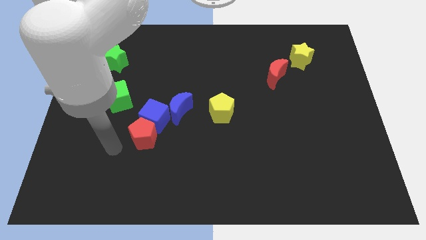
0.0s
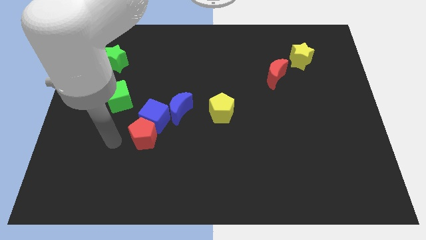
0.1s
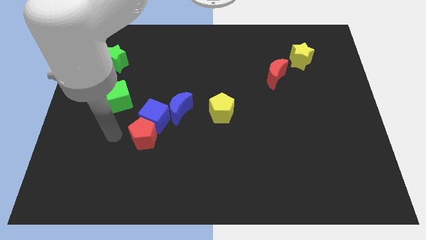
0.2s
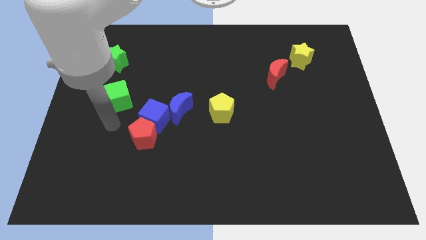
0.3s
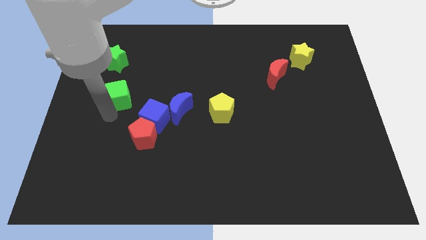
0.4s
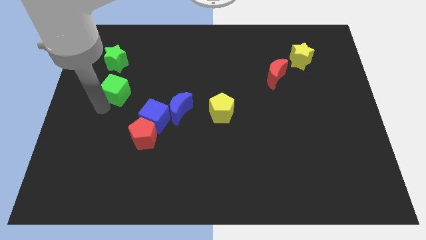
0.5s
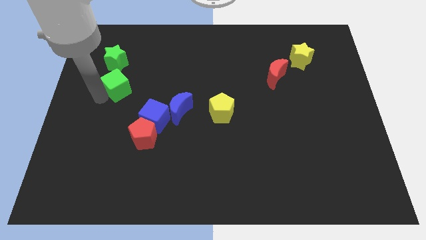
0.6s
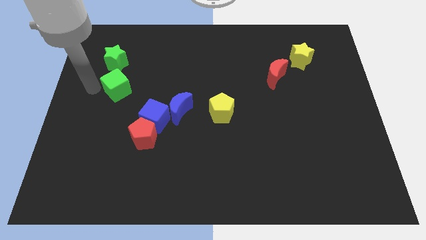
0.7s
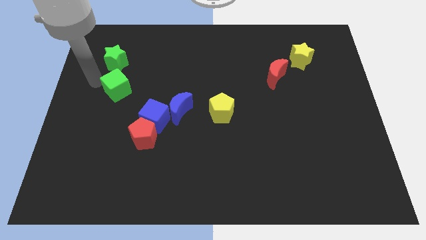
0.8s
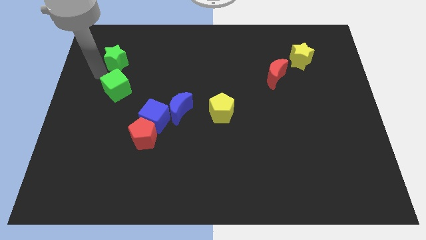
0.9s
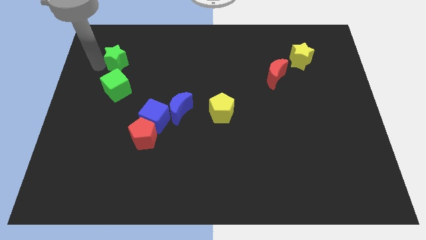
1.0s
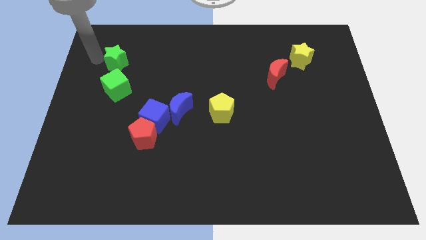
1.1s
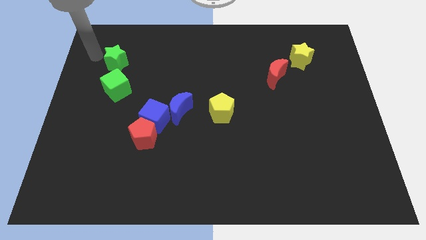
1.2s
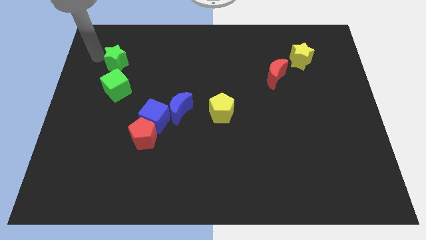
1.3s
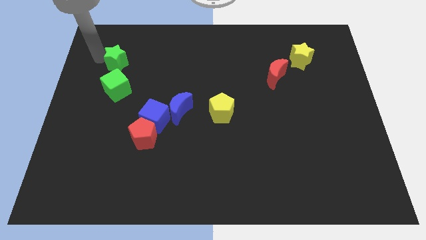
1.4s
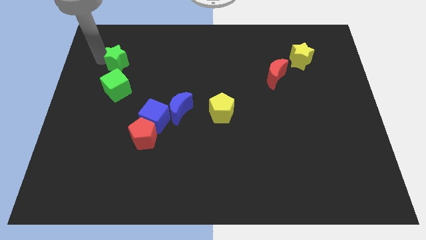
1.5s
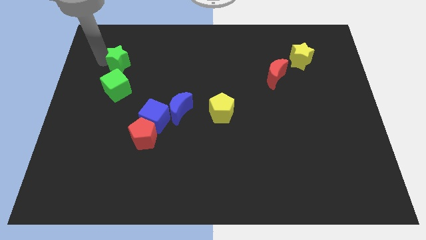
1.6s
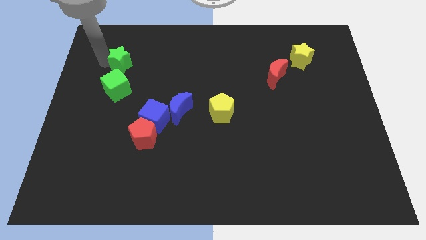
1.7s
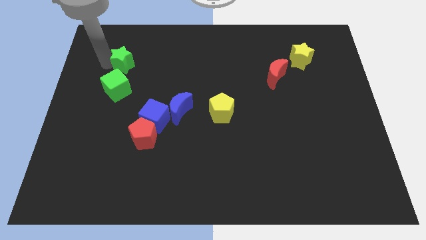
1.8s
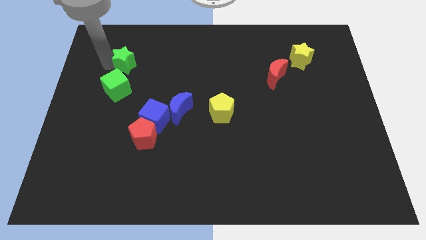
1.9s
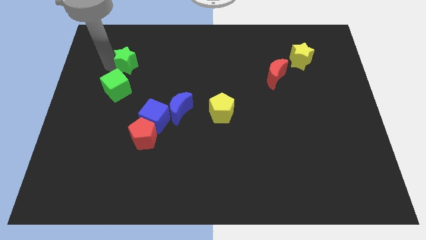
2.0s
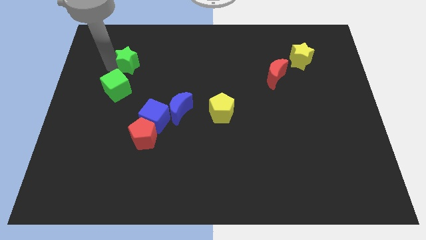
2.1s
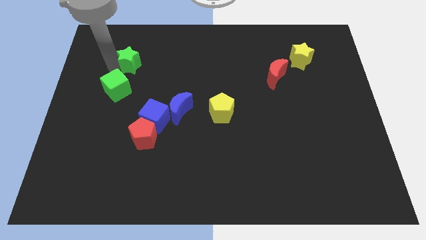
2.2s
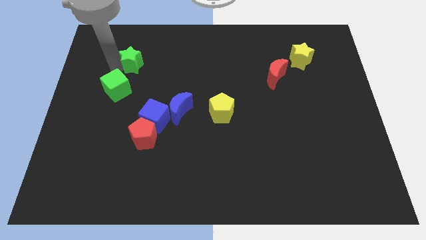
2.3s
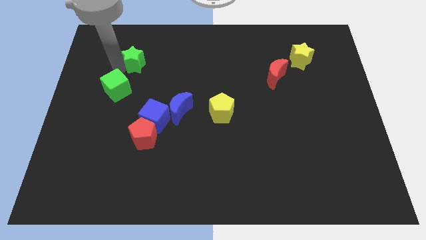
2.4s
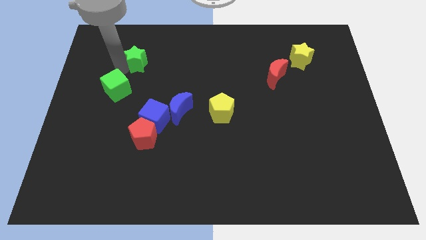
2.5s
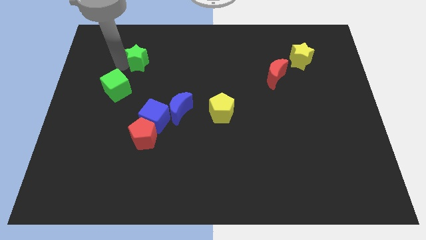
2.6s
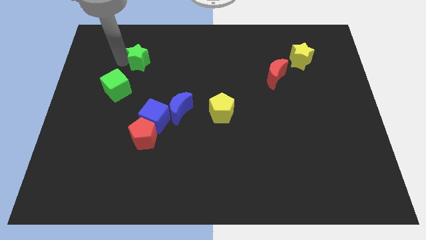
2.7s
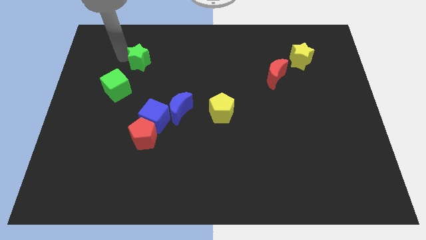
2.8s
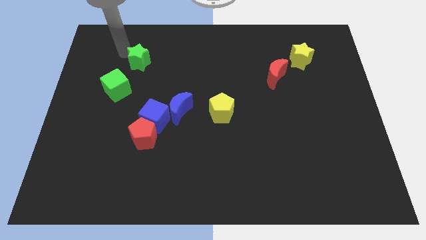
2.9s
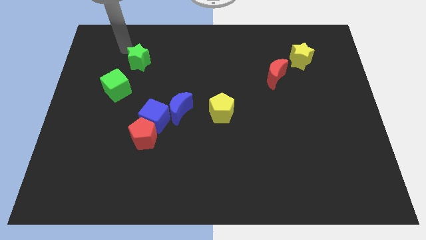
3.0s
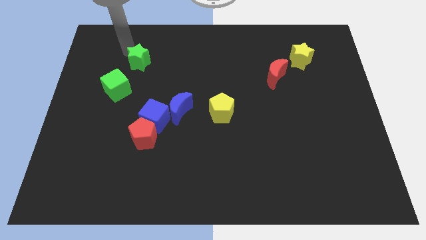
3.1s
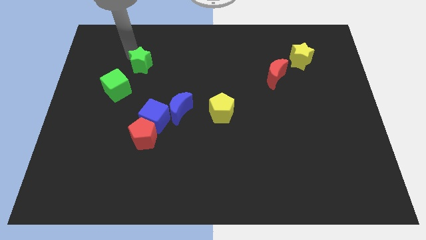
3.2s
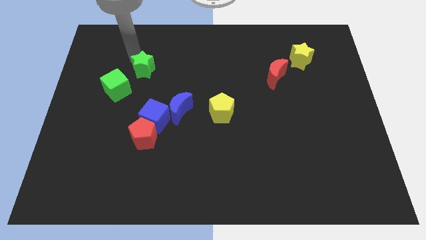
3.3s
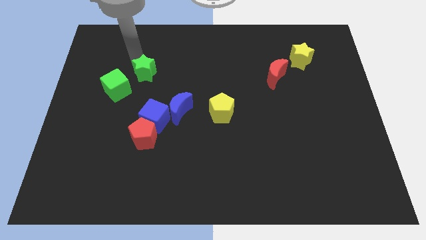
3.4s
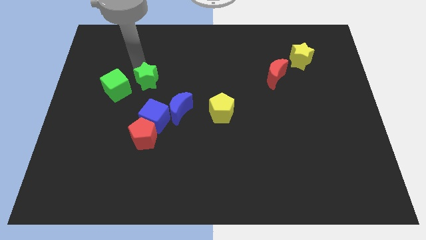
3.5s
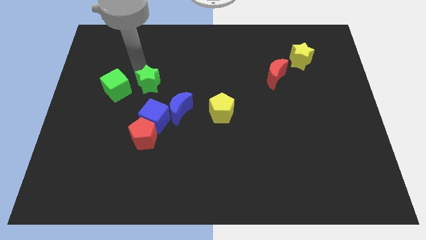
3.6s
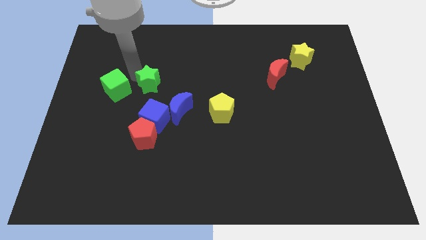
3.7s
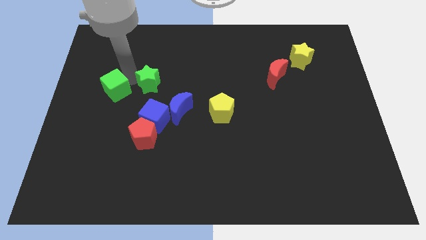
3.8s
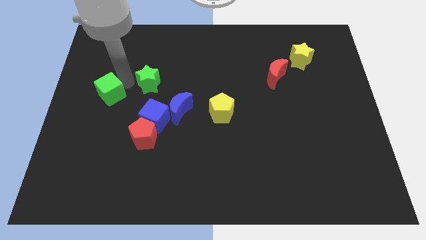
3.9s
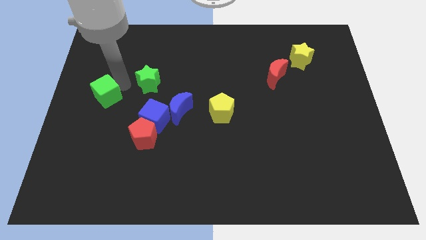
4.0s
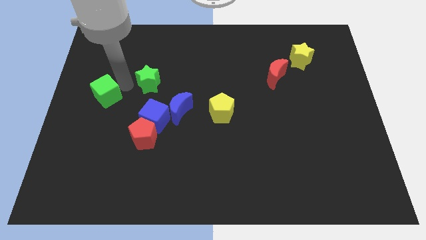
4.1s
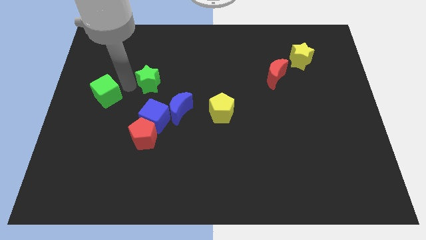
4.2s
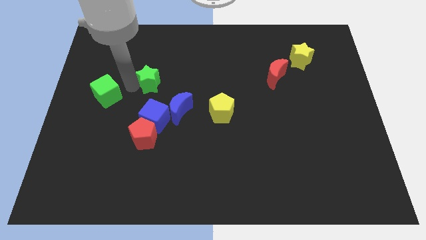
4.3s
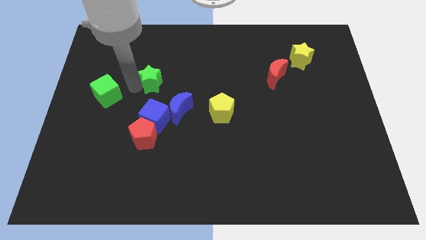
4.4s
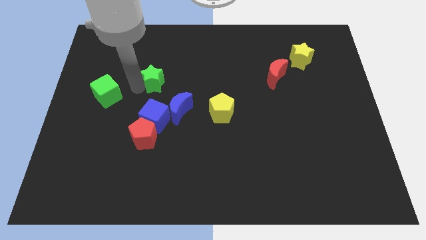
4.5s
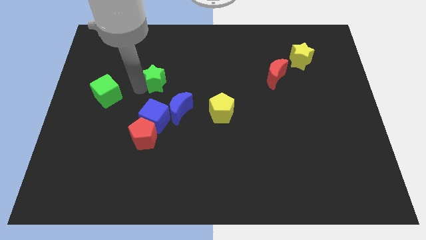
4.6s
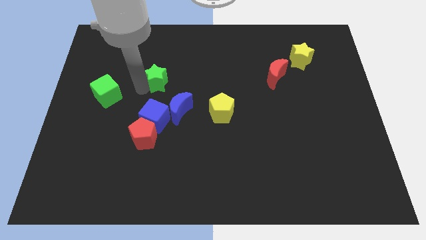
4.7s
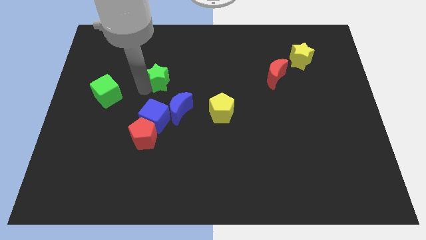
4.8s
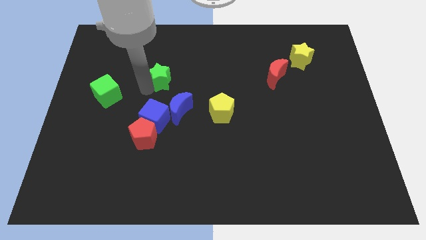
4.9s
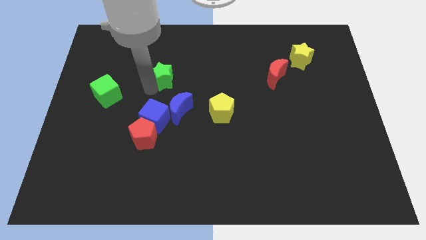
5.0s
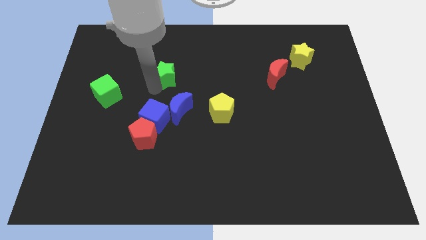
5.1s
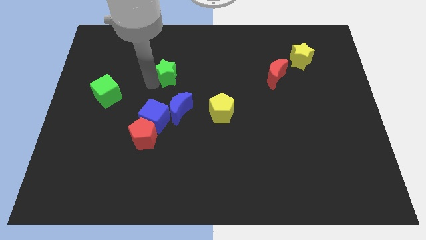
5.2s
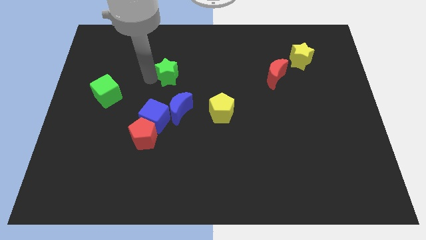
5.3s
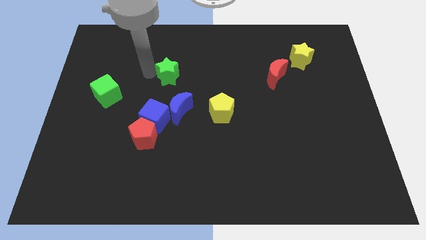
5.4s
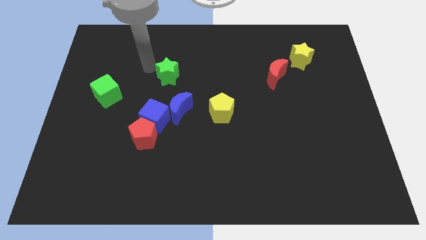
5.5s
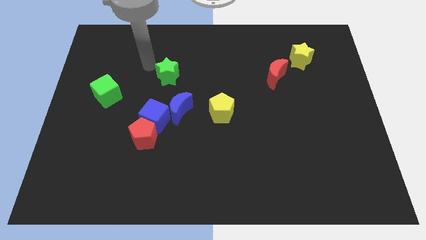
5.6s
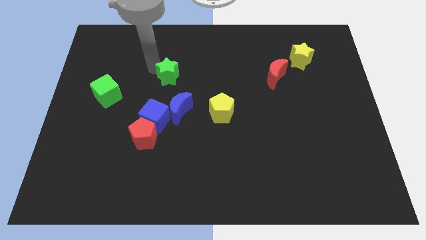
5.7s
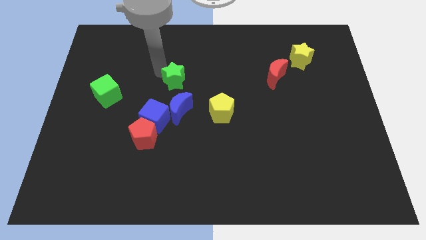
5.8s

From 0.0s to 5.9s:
put the green star to the center of the board
